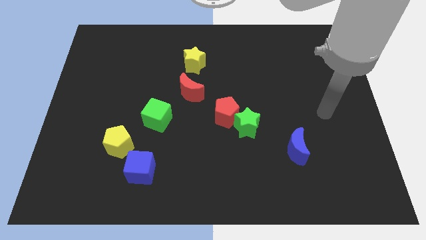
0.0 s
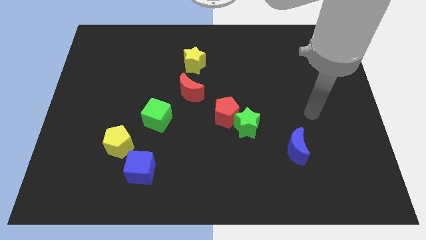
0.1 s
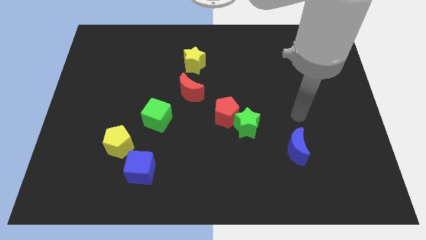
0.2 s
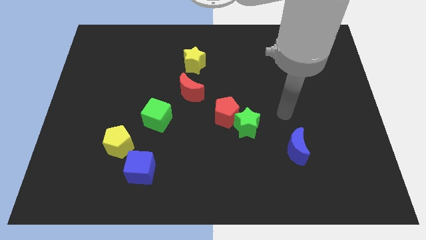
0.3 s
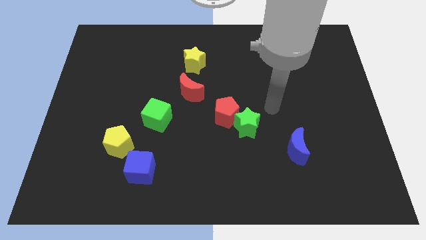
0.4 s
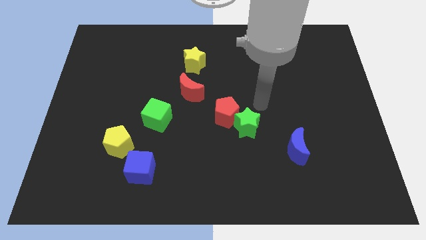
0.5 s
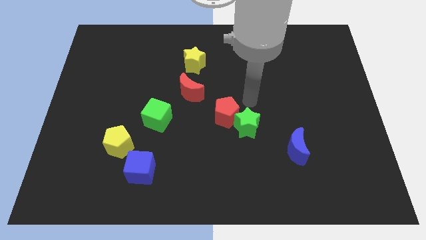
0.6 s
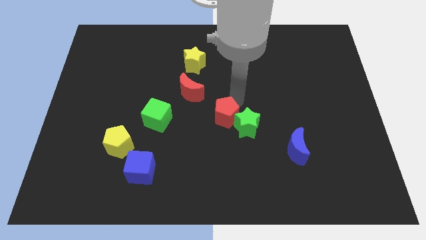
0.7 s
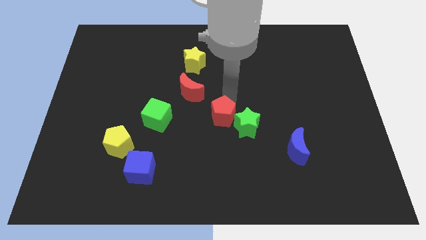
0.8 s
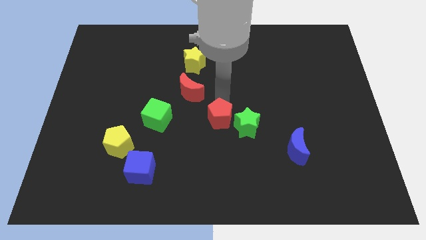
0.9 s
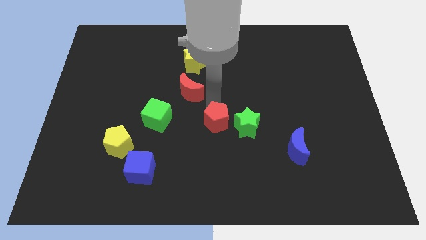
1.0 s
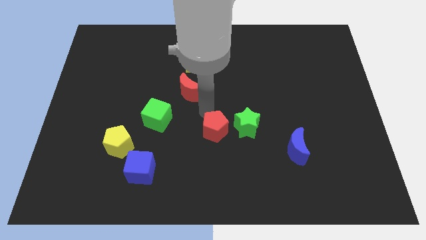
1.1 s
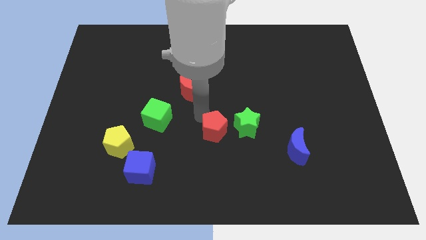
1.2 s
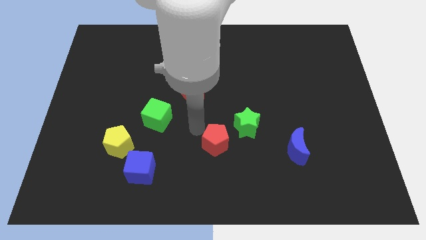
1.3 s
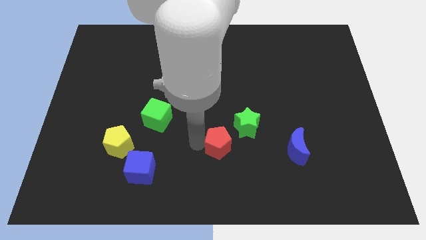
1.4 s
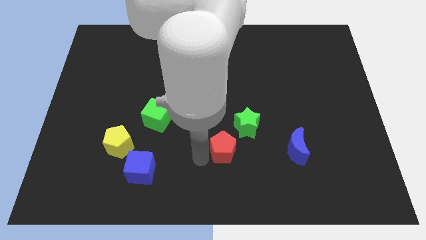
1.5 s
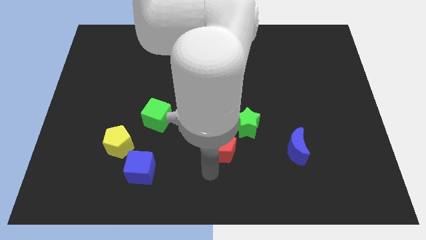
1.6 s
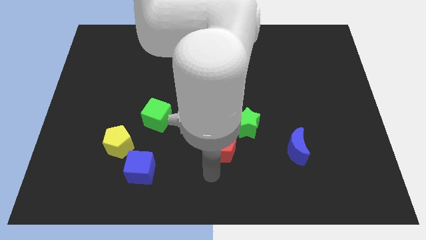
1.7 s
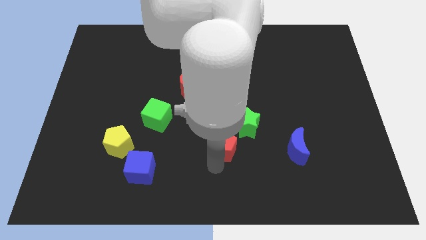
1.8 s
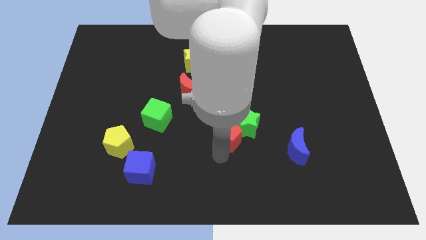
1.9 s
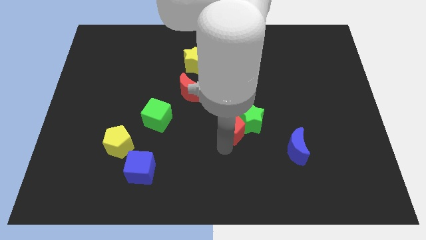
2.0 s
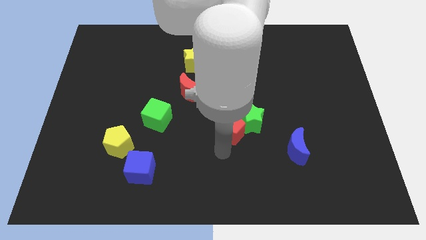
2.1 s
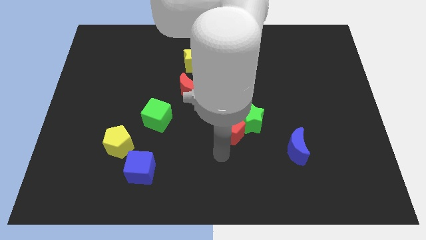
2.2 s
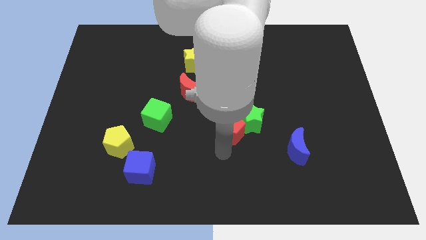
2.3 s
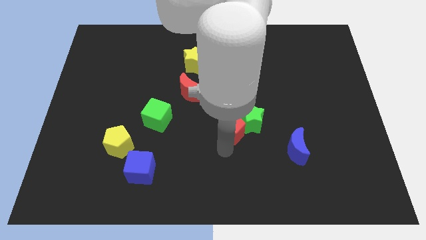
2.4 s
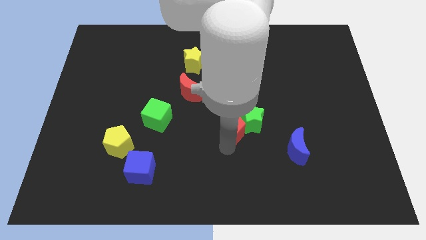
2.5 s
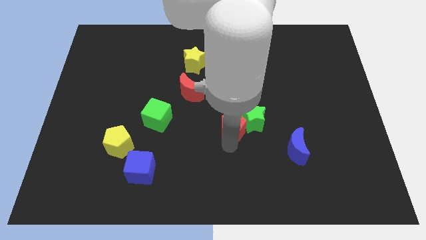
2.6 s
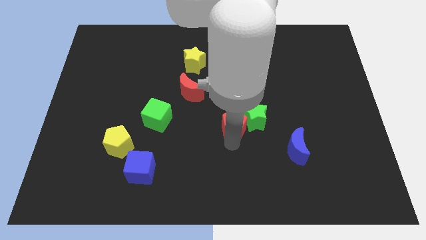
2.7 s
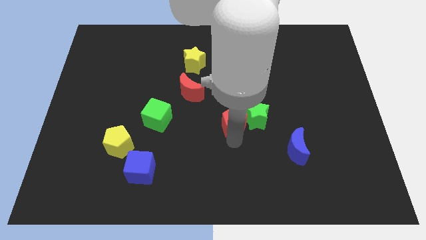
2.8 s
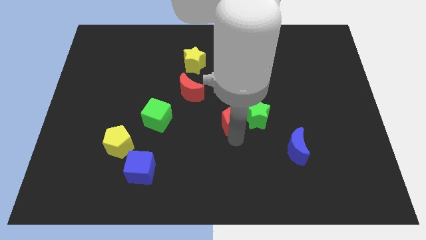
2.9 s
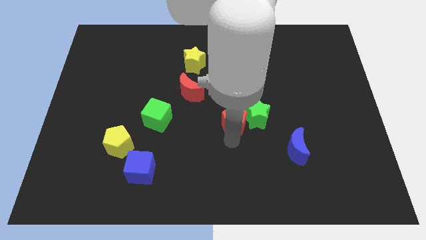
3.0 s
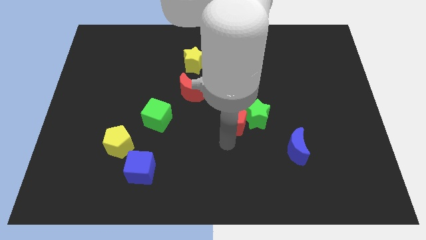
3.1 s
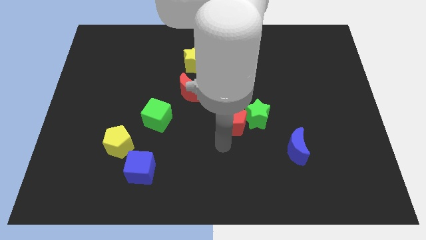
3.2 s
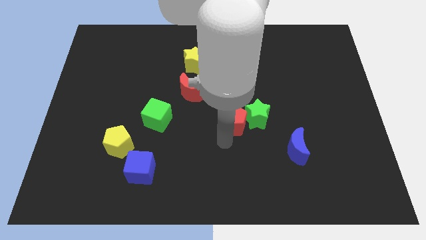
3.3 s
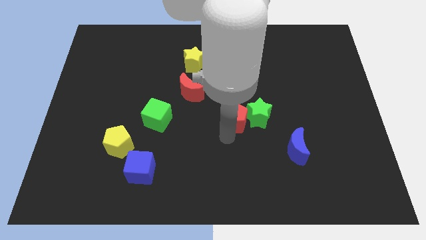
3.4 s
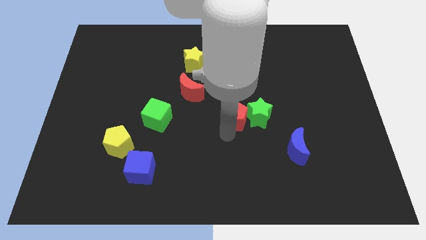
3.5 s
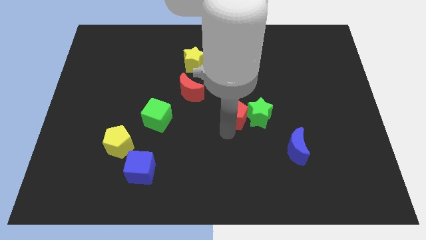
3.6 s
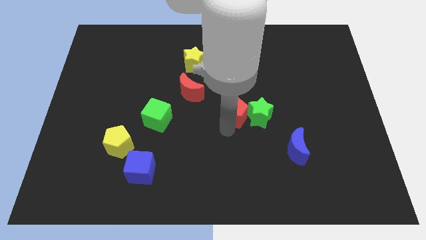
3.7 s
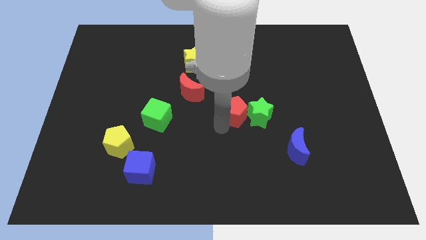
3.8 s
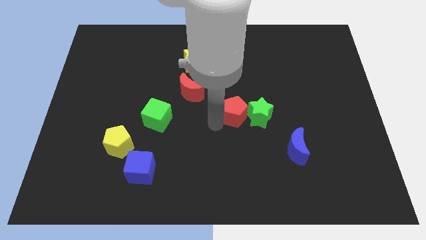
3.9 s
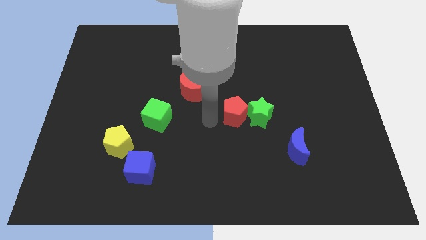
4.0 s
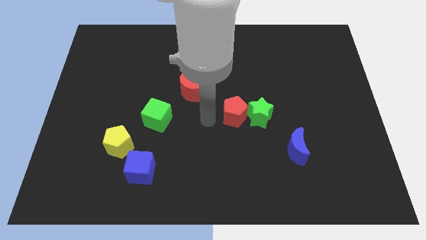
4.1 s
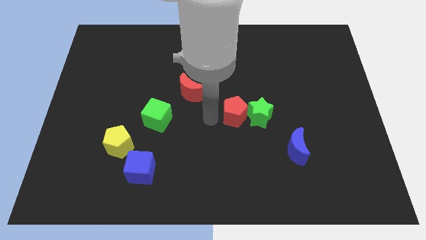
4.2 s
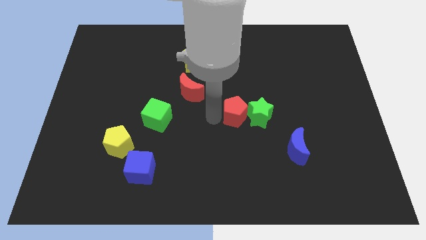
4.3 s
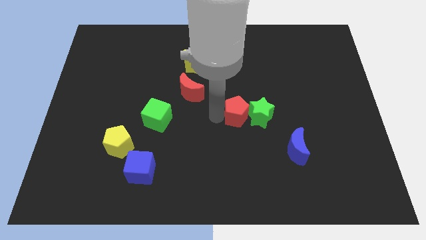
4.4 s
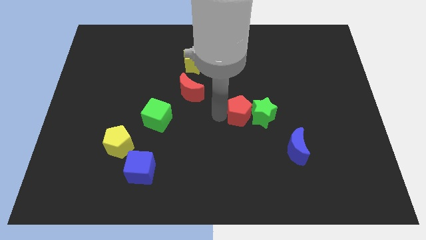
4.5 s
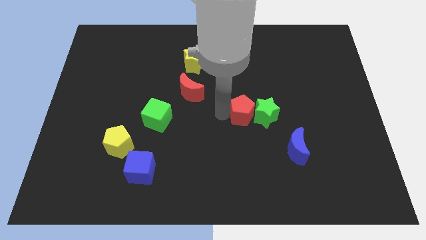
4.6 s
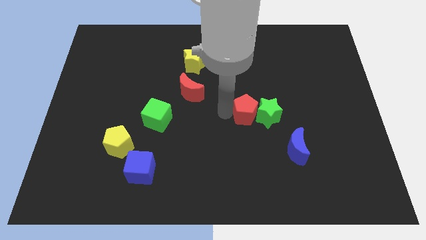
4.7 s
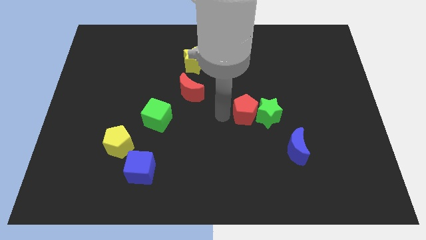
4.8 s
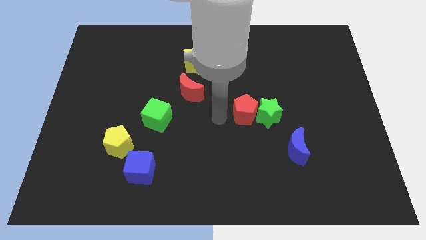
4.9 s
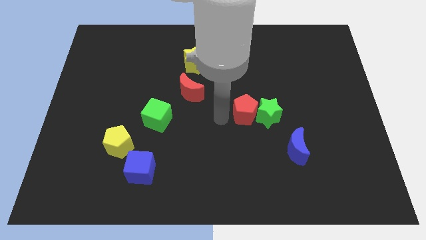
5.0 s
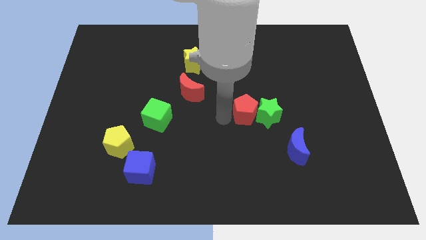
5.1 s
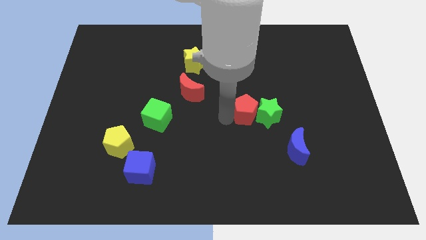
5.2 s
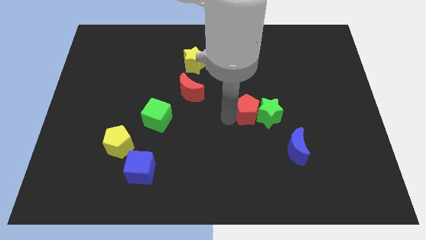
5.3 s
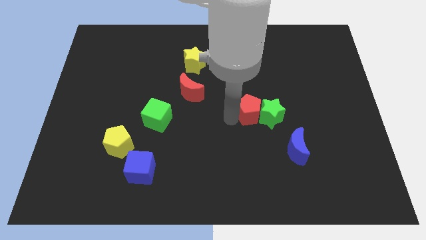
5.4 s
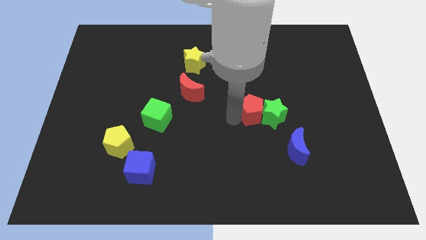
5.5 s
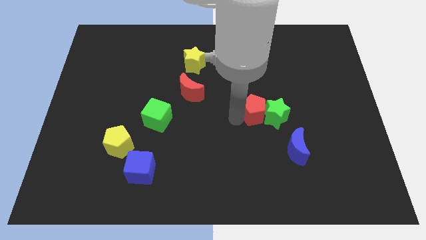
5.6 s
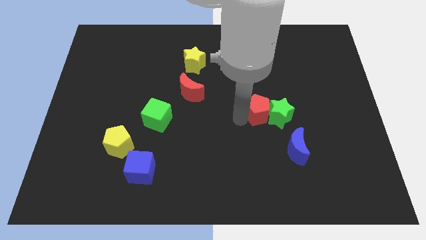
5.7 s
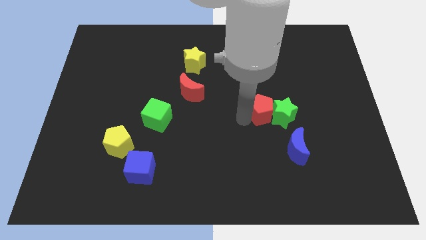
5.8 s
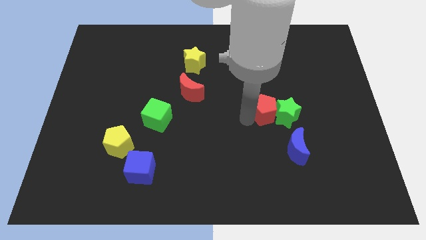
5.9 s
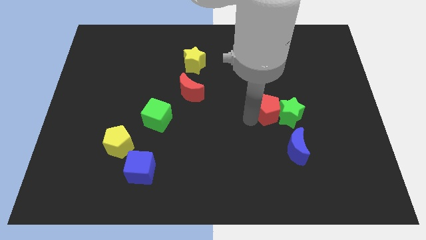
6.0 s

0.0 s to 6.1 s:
push the red pentagon above the blue moon

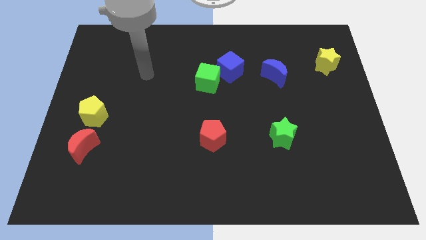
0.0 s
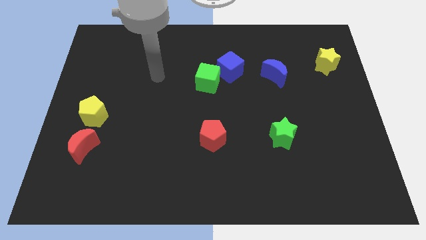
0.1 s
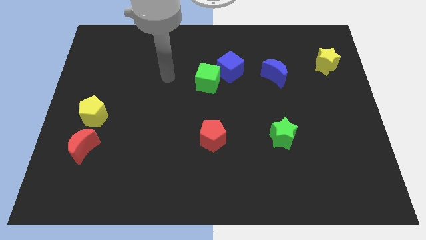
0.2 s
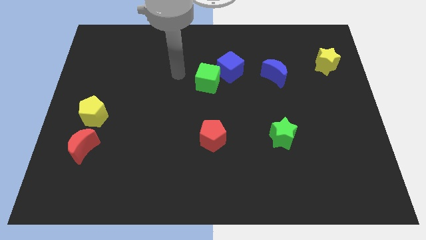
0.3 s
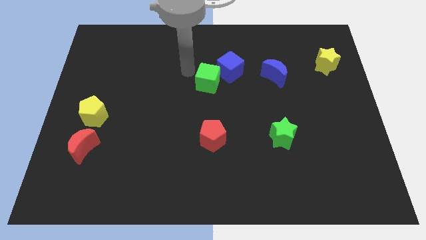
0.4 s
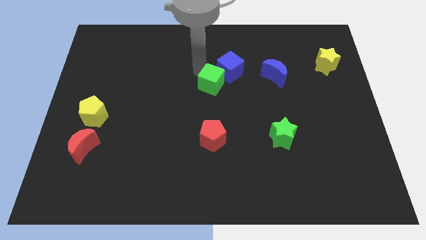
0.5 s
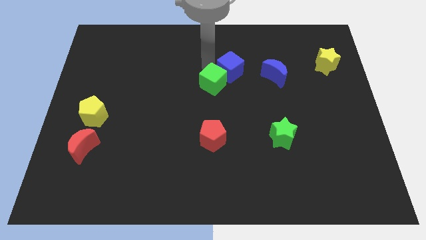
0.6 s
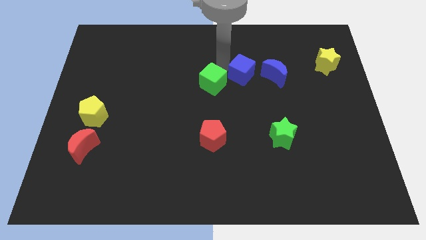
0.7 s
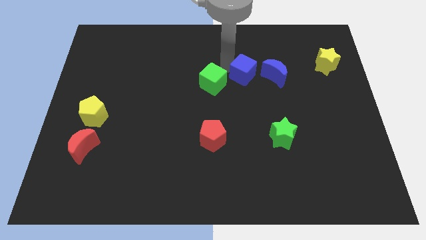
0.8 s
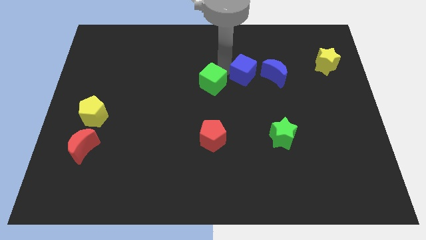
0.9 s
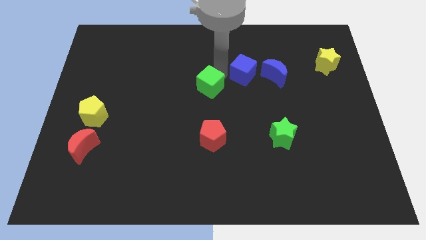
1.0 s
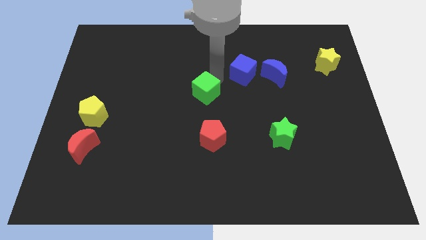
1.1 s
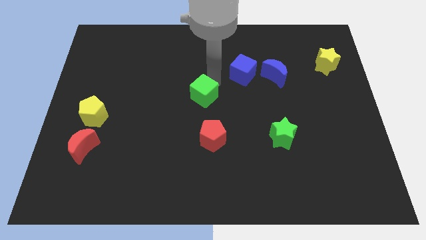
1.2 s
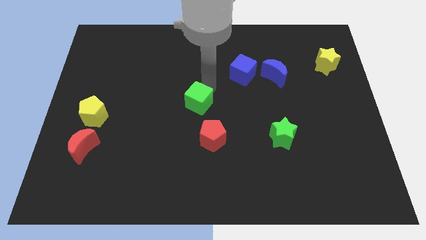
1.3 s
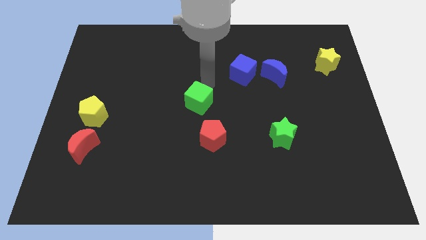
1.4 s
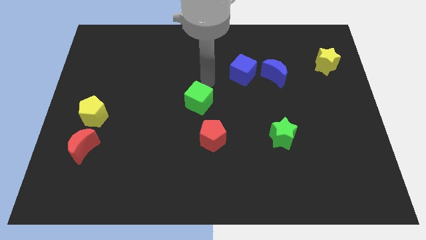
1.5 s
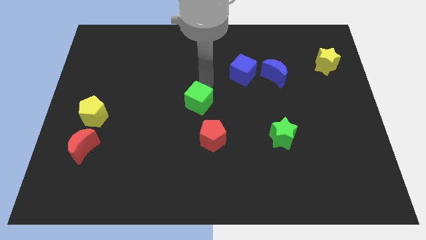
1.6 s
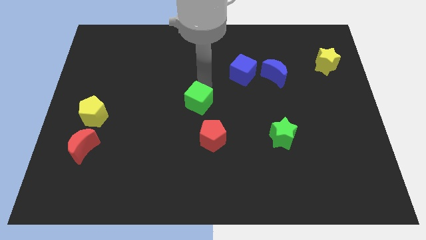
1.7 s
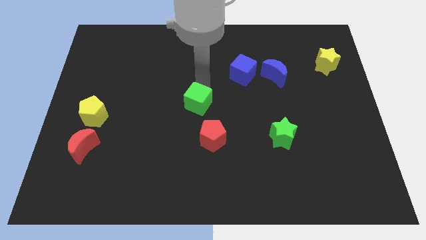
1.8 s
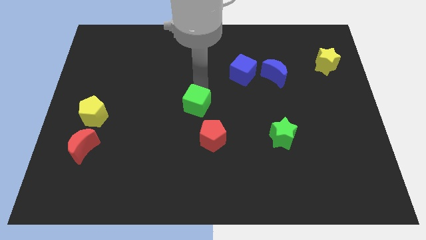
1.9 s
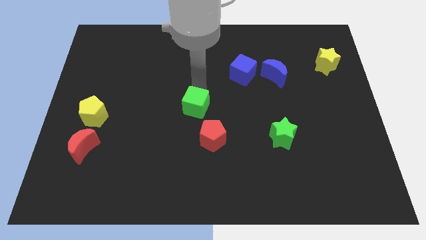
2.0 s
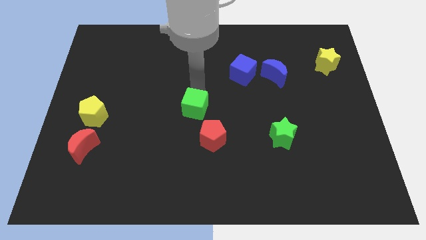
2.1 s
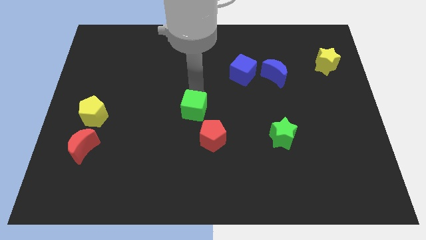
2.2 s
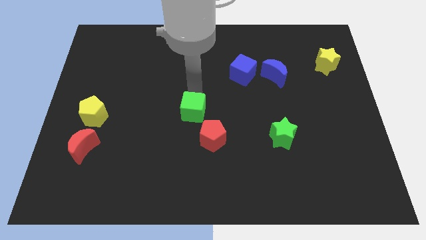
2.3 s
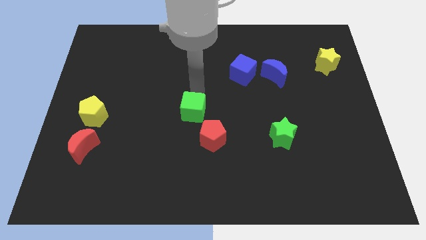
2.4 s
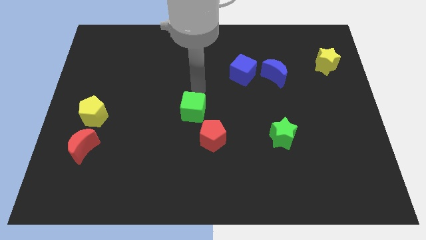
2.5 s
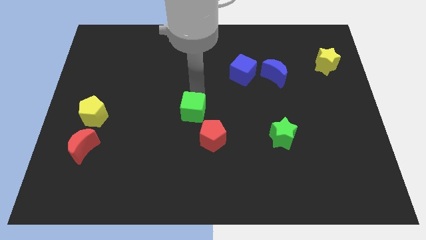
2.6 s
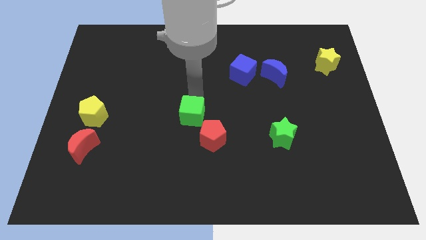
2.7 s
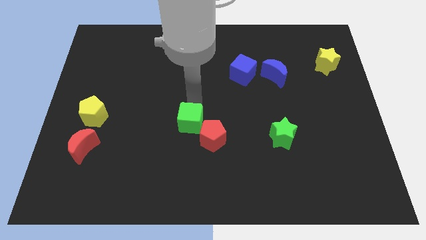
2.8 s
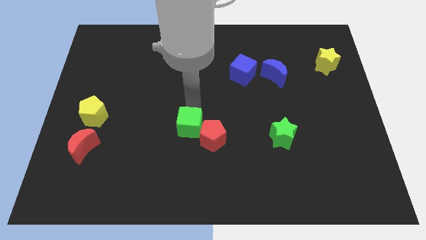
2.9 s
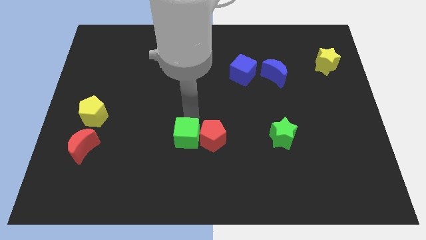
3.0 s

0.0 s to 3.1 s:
move the green cube to the bottom left of the red pentagon
